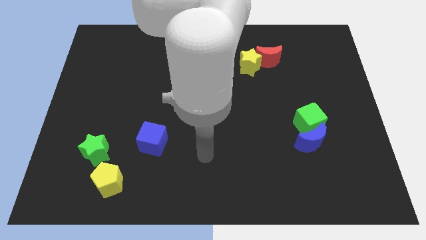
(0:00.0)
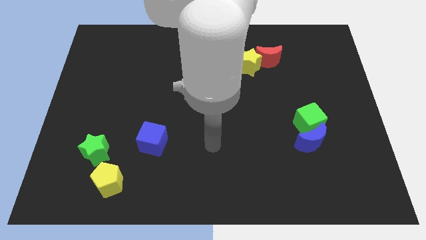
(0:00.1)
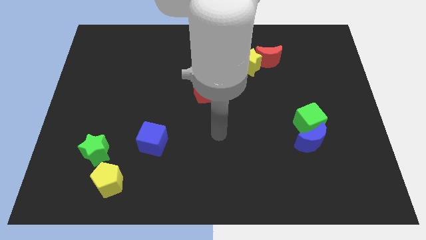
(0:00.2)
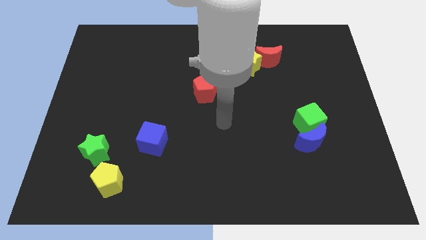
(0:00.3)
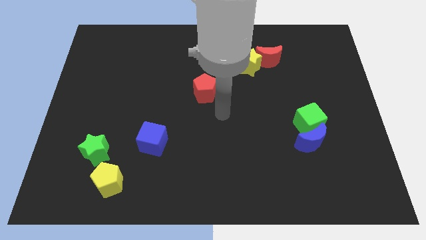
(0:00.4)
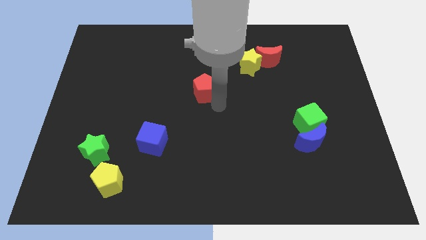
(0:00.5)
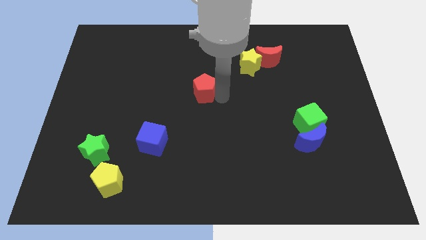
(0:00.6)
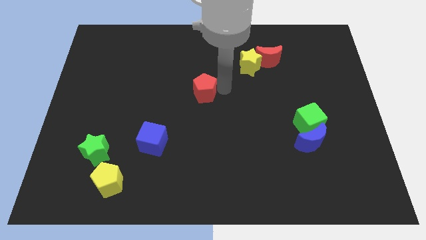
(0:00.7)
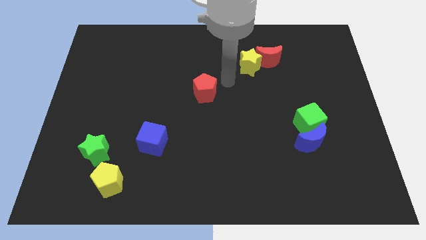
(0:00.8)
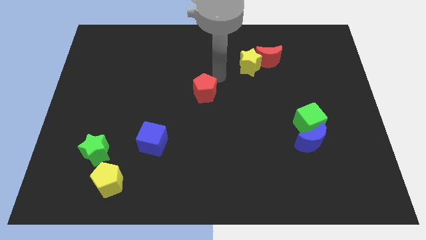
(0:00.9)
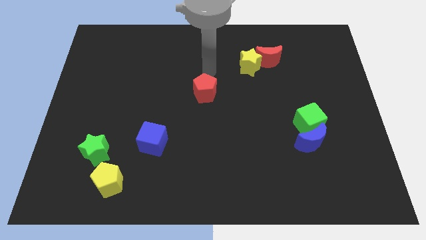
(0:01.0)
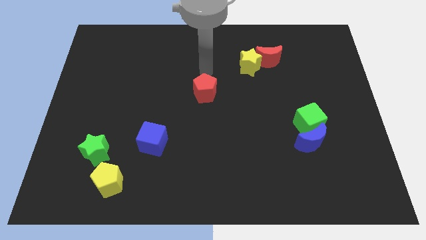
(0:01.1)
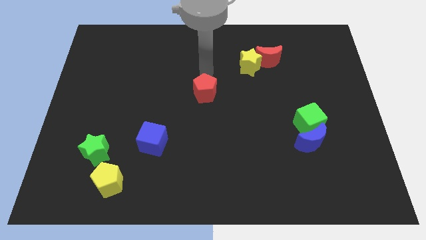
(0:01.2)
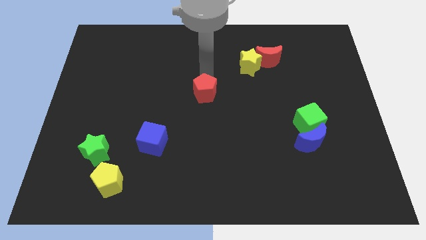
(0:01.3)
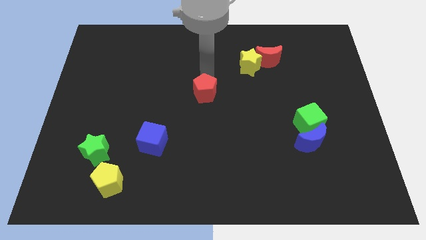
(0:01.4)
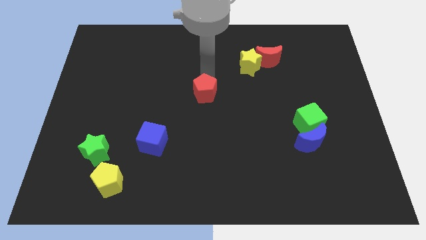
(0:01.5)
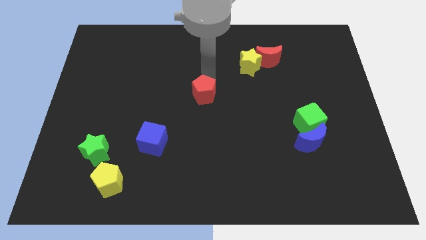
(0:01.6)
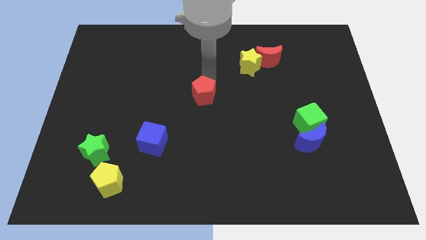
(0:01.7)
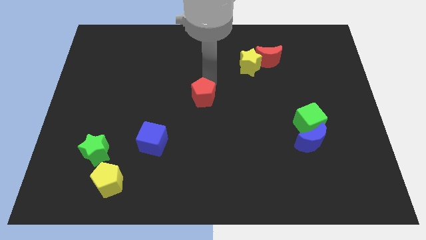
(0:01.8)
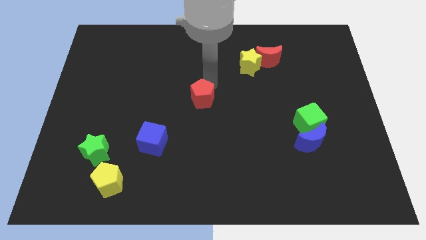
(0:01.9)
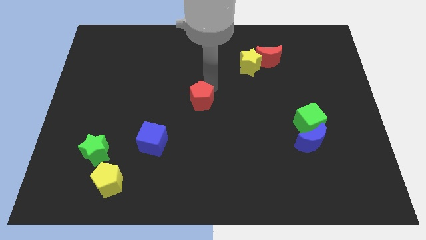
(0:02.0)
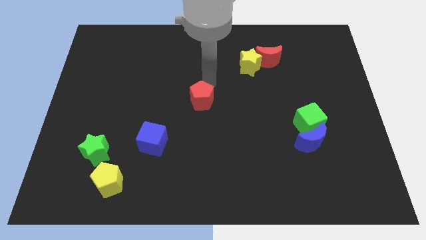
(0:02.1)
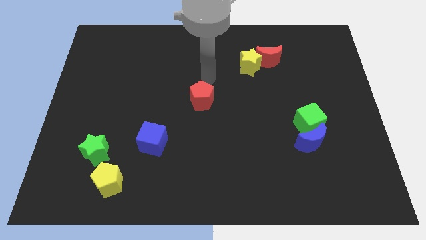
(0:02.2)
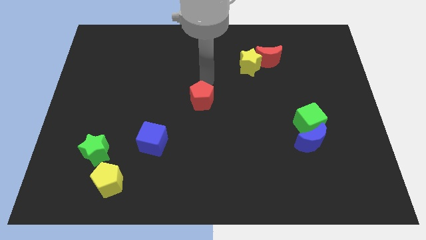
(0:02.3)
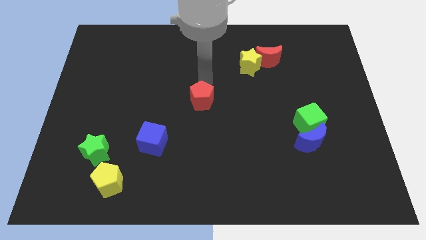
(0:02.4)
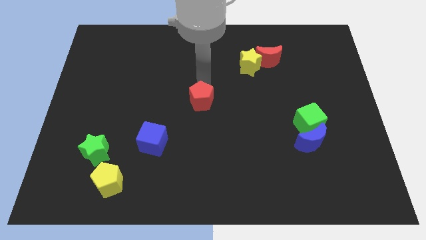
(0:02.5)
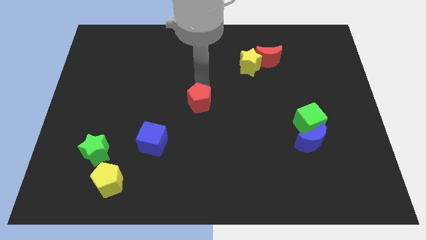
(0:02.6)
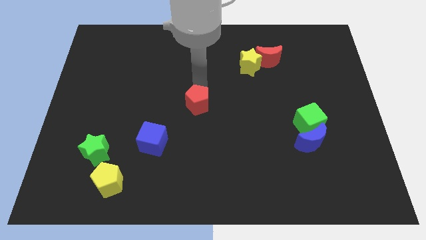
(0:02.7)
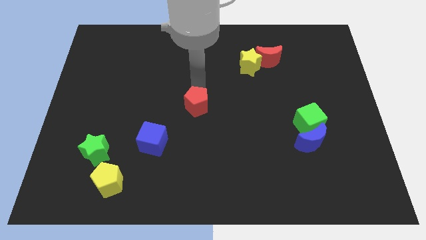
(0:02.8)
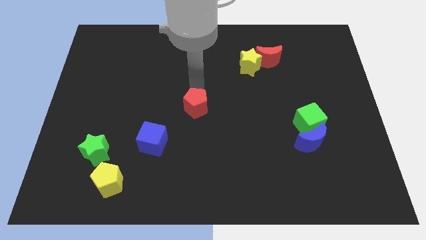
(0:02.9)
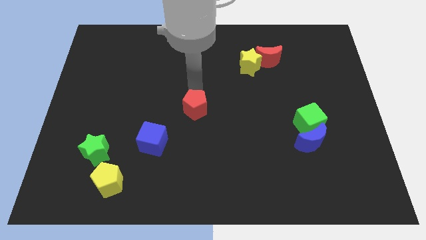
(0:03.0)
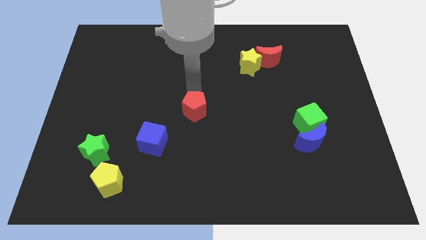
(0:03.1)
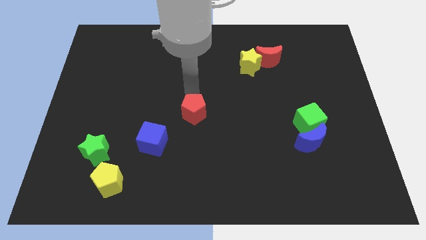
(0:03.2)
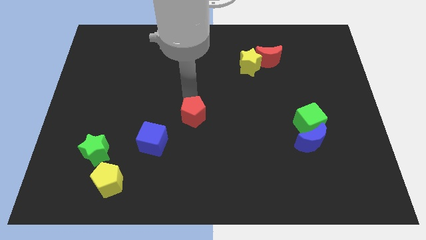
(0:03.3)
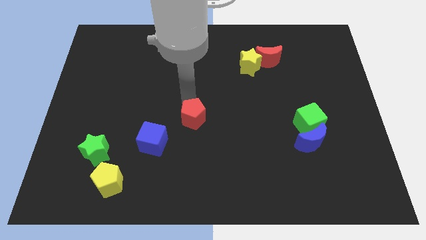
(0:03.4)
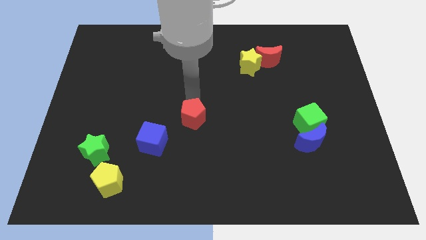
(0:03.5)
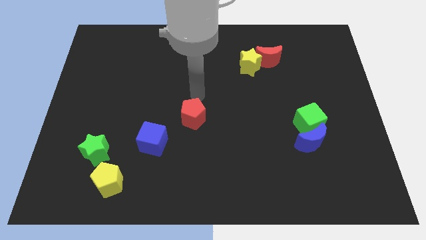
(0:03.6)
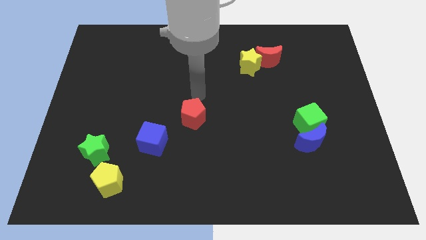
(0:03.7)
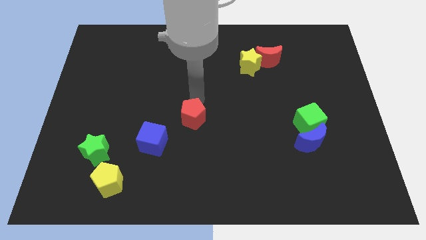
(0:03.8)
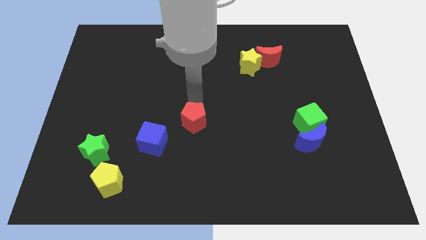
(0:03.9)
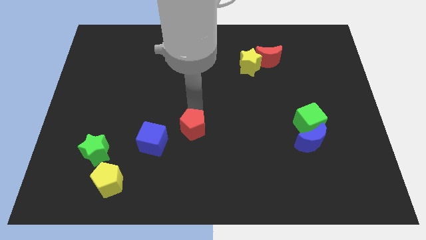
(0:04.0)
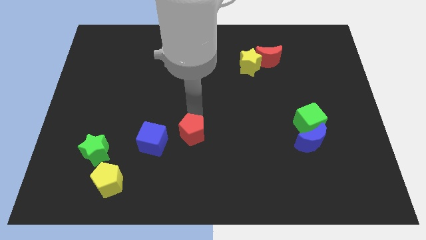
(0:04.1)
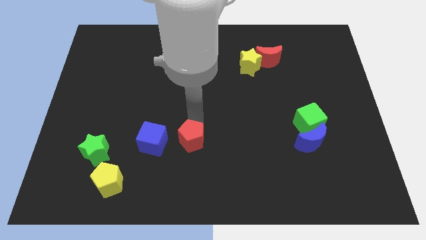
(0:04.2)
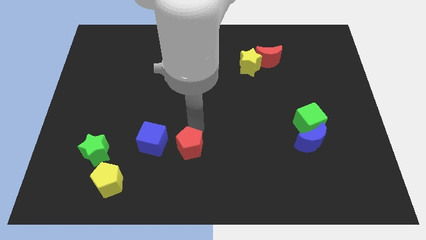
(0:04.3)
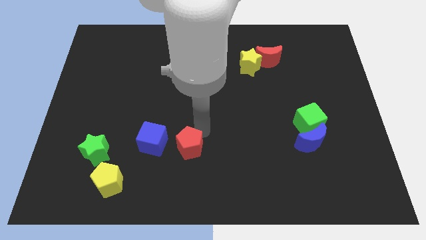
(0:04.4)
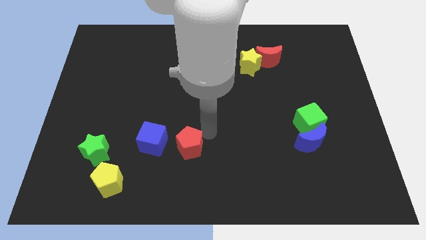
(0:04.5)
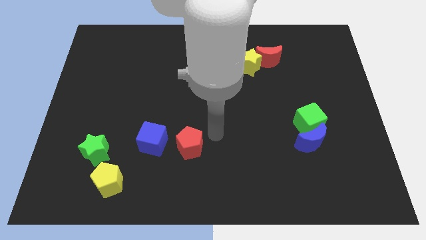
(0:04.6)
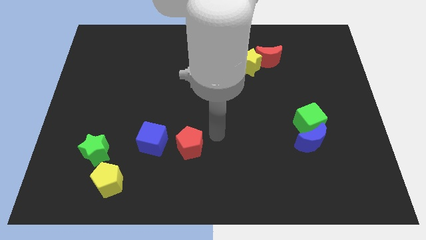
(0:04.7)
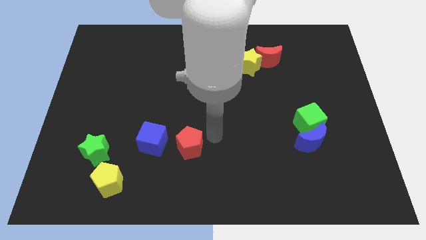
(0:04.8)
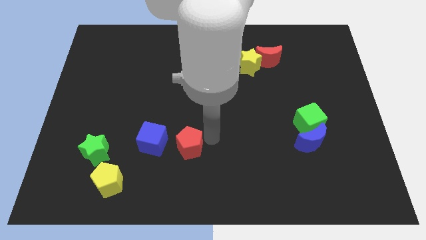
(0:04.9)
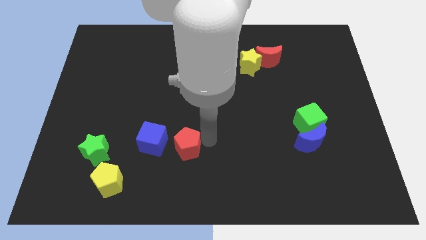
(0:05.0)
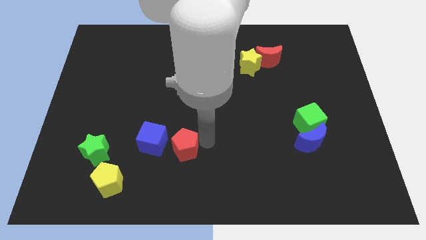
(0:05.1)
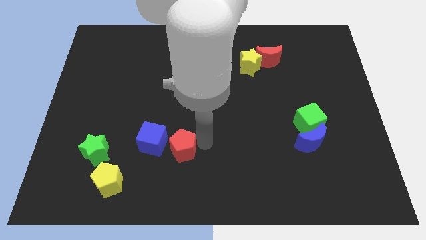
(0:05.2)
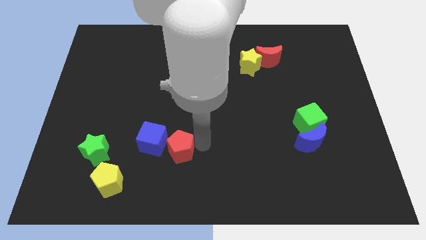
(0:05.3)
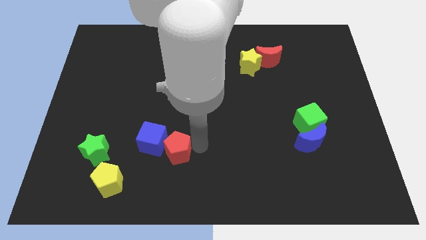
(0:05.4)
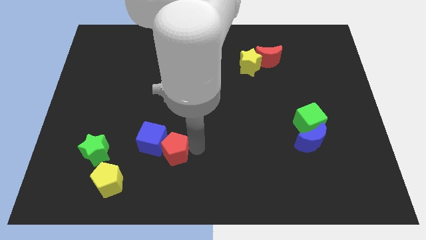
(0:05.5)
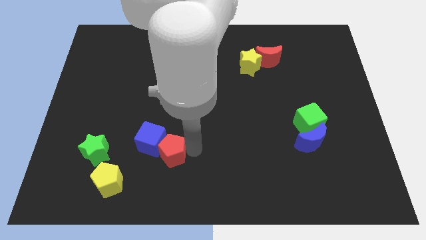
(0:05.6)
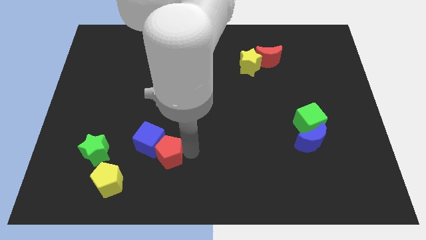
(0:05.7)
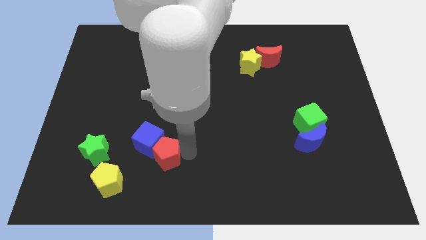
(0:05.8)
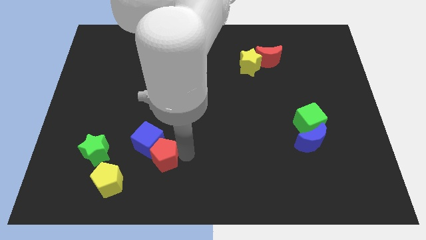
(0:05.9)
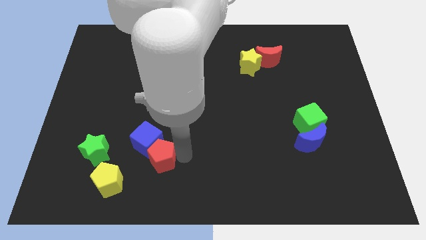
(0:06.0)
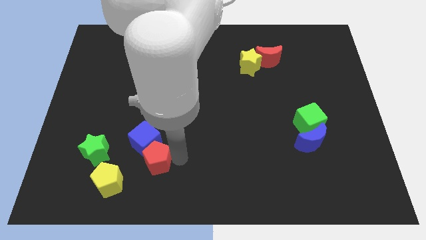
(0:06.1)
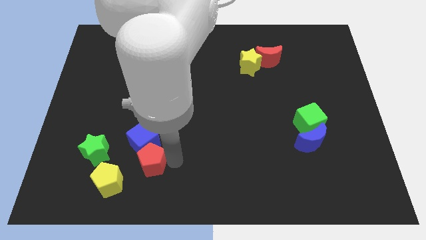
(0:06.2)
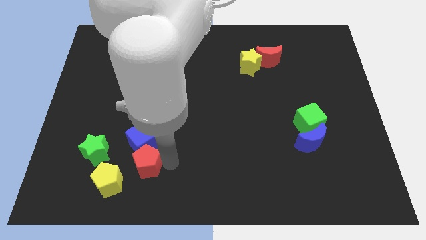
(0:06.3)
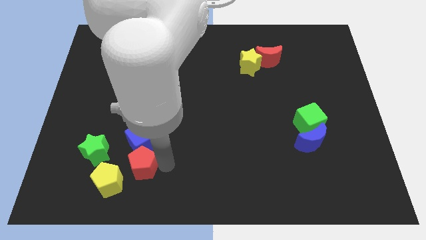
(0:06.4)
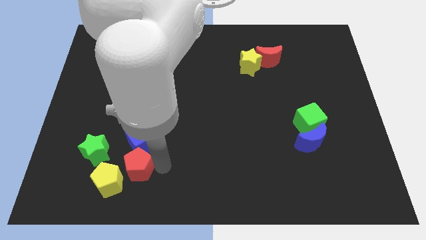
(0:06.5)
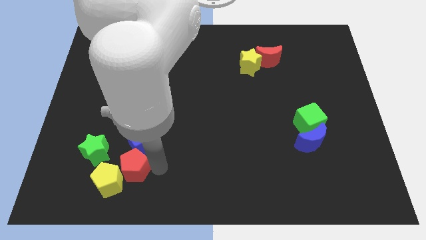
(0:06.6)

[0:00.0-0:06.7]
move the red pentagon close to the yellow pentagon

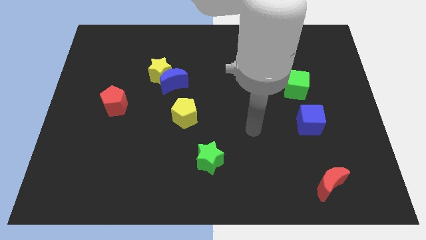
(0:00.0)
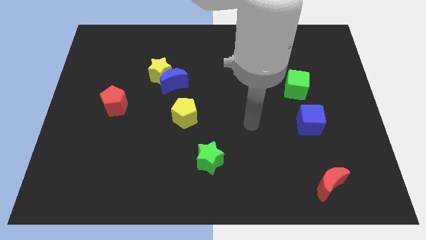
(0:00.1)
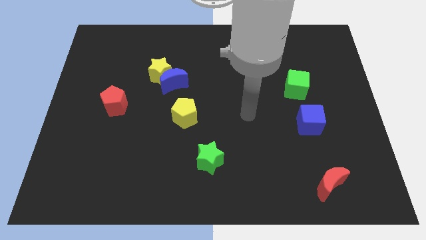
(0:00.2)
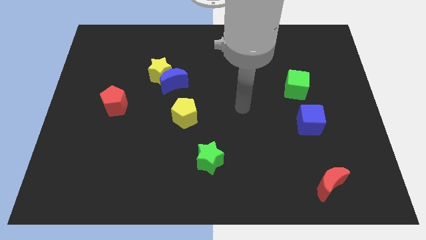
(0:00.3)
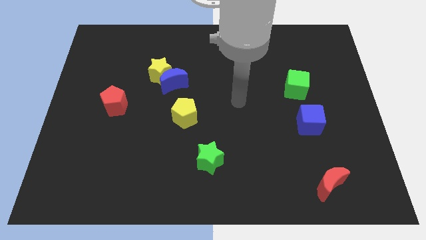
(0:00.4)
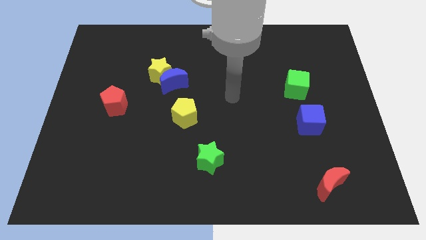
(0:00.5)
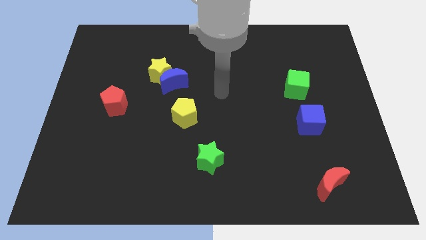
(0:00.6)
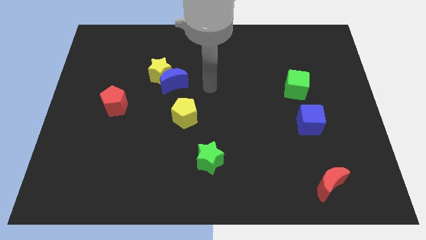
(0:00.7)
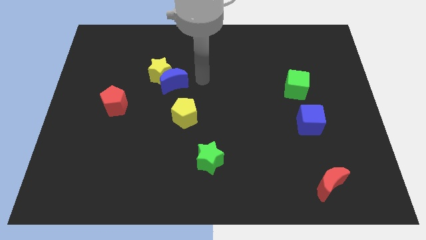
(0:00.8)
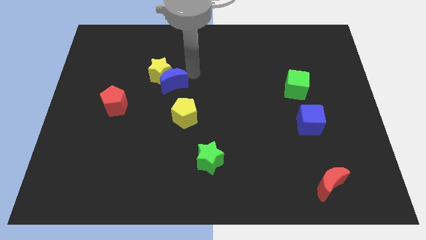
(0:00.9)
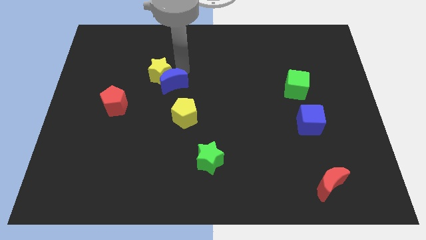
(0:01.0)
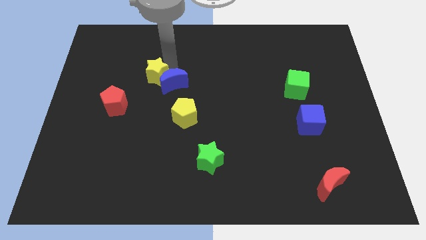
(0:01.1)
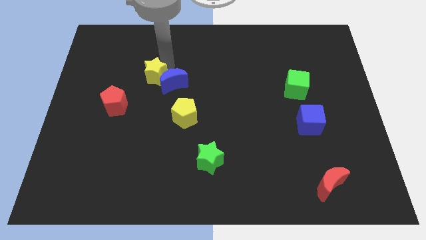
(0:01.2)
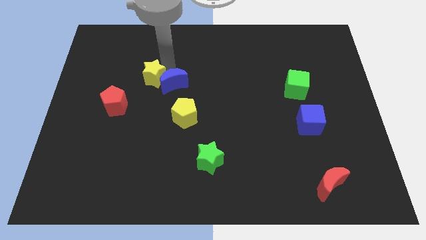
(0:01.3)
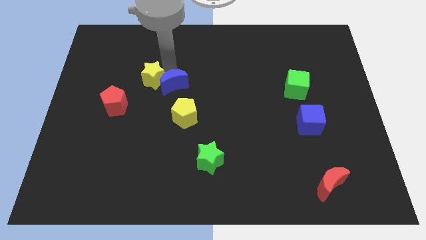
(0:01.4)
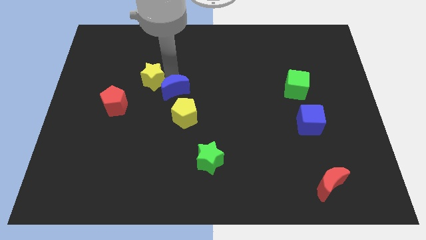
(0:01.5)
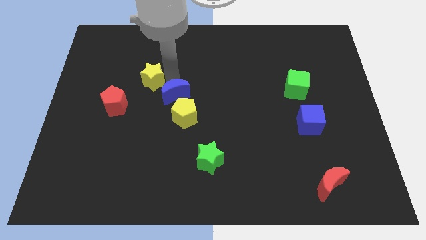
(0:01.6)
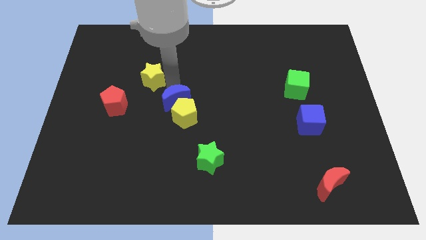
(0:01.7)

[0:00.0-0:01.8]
slide the blue moon next to the yellow pentagon
